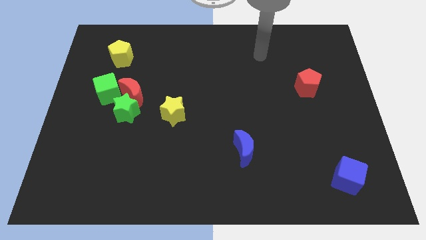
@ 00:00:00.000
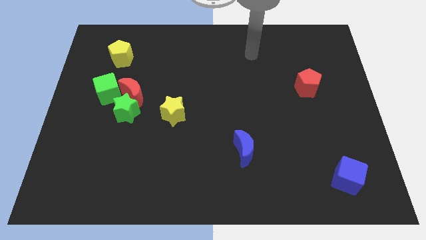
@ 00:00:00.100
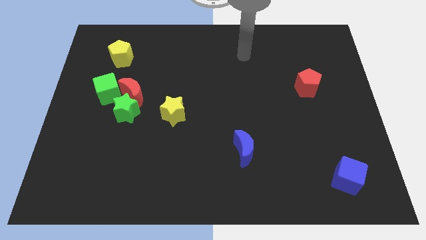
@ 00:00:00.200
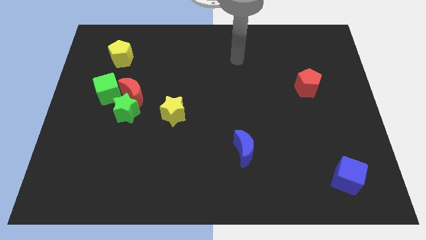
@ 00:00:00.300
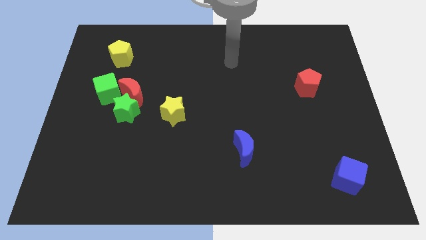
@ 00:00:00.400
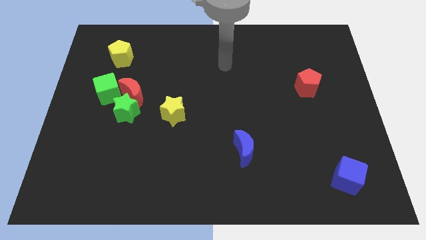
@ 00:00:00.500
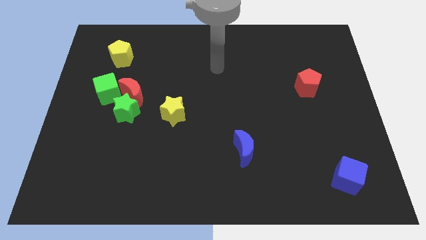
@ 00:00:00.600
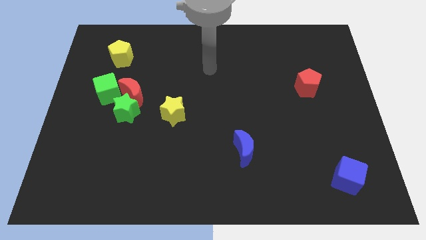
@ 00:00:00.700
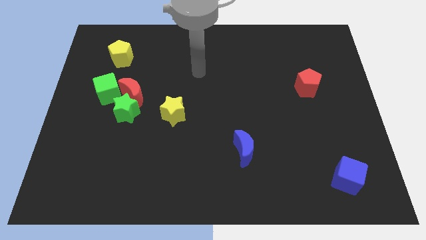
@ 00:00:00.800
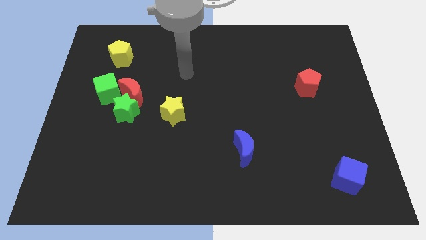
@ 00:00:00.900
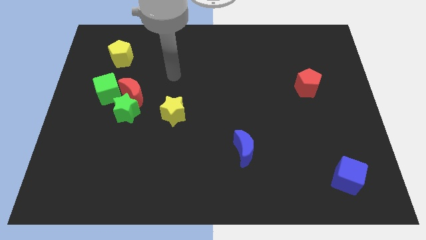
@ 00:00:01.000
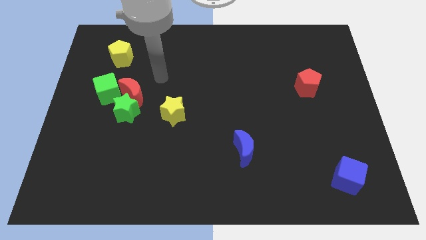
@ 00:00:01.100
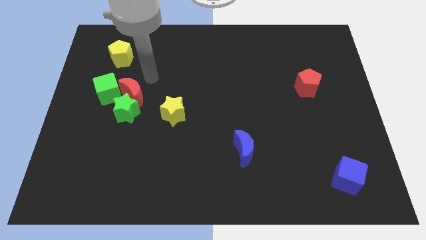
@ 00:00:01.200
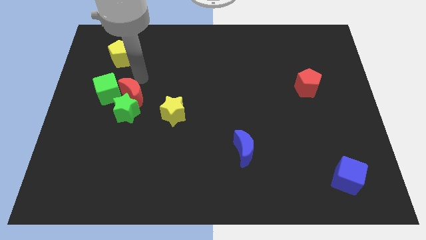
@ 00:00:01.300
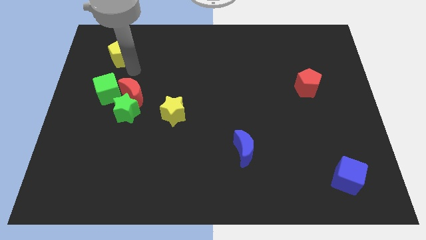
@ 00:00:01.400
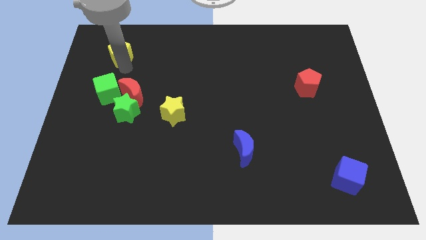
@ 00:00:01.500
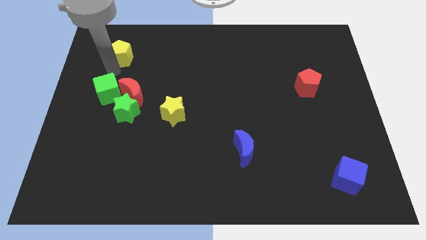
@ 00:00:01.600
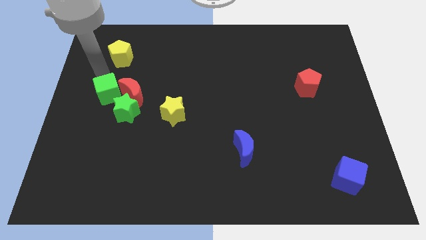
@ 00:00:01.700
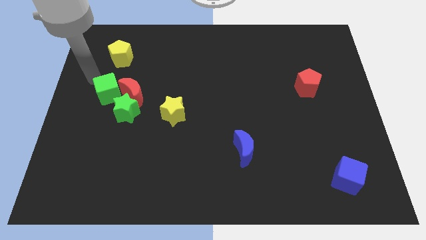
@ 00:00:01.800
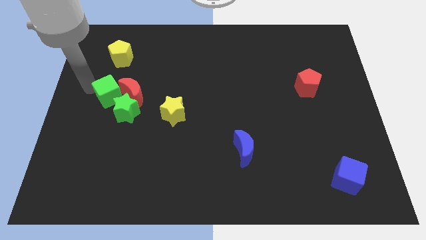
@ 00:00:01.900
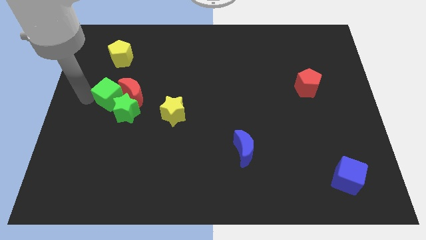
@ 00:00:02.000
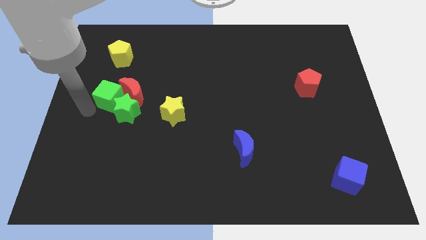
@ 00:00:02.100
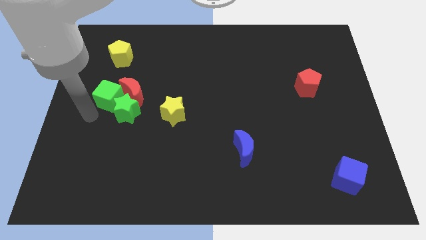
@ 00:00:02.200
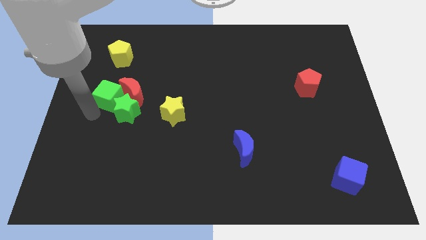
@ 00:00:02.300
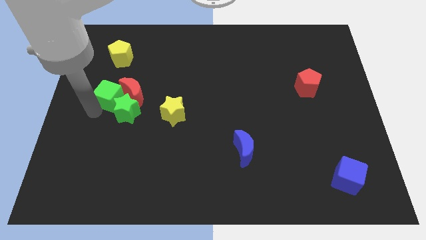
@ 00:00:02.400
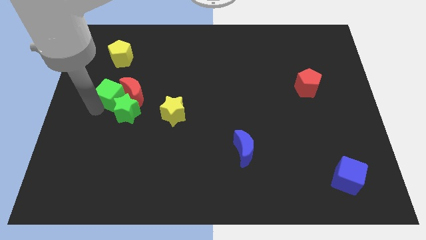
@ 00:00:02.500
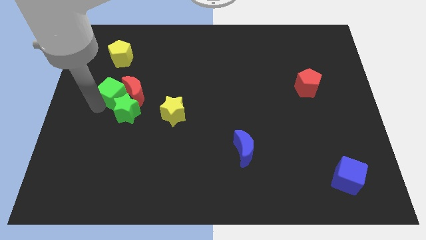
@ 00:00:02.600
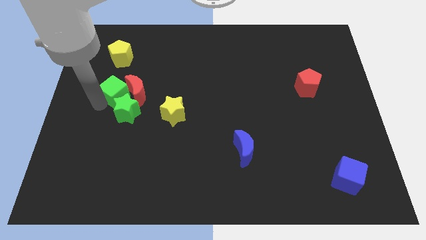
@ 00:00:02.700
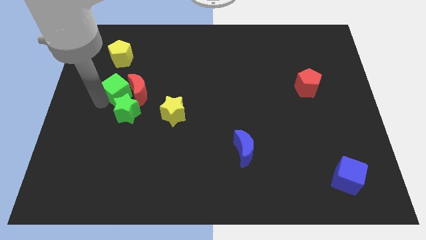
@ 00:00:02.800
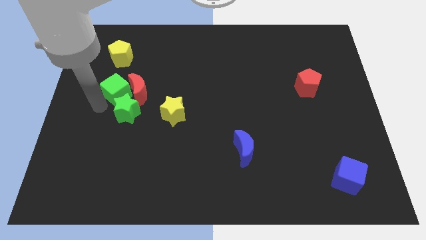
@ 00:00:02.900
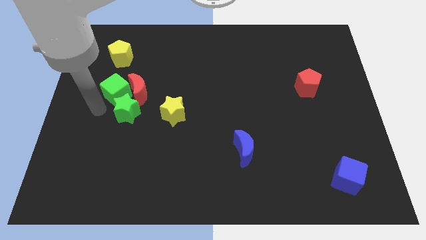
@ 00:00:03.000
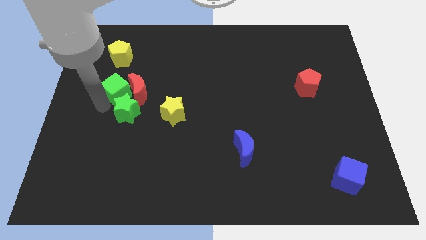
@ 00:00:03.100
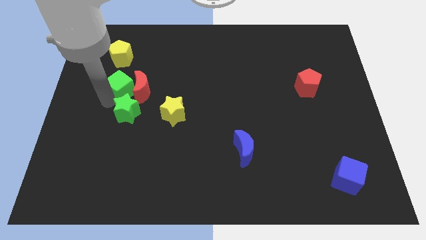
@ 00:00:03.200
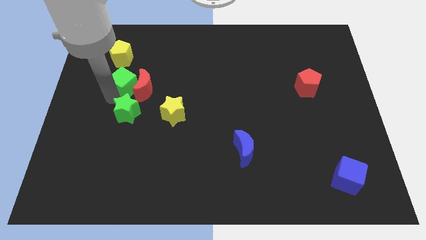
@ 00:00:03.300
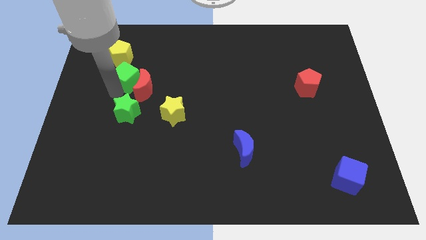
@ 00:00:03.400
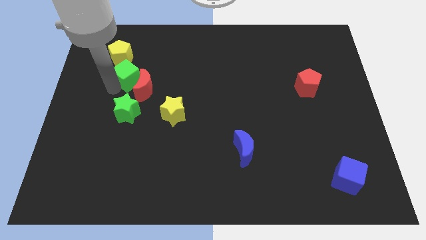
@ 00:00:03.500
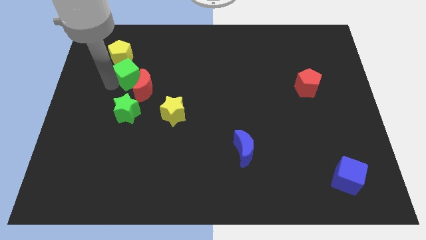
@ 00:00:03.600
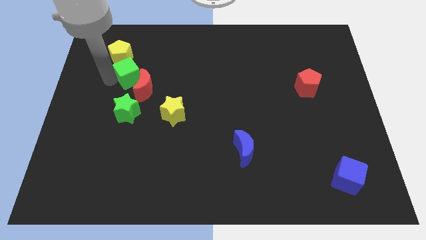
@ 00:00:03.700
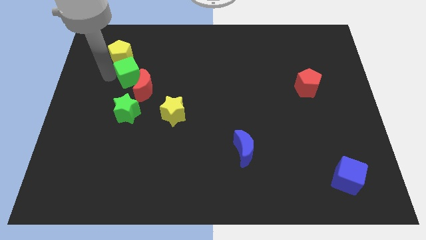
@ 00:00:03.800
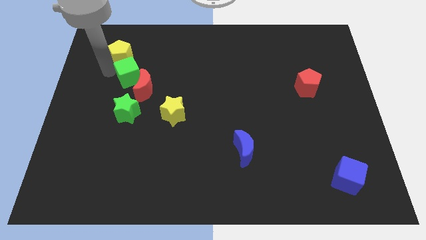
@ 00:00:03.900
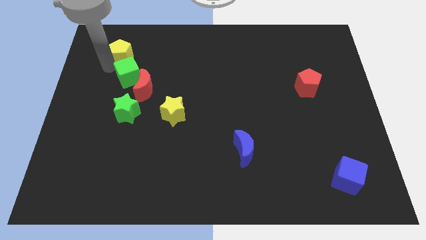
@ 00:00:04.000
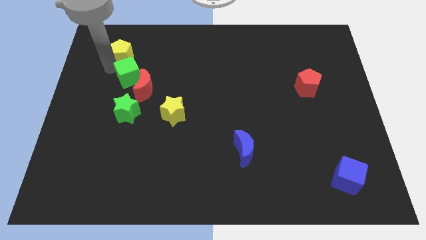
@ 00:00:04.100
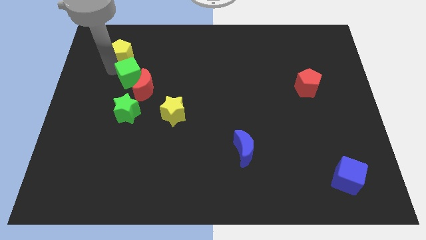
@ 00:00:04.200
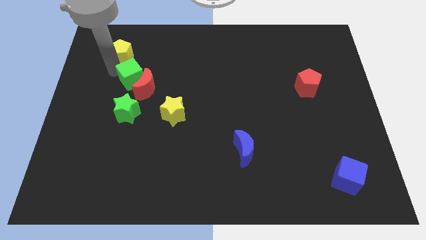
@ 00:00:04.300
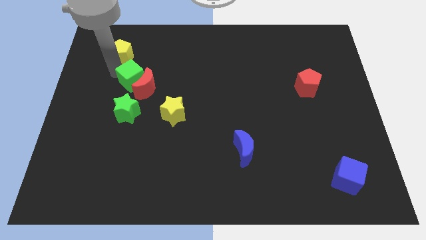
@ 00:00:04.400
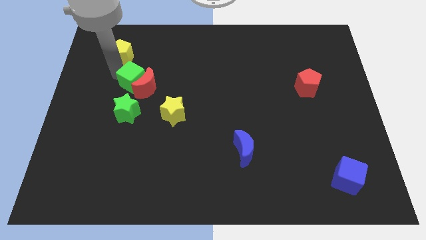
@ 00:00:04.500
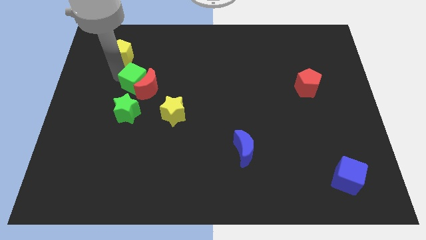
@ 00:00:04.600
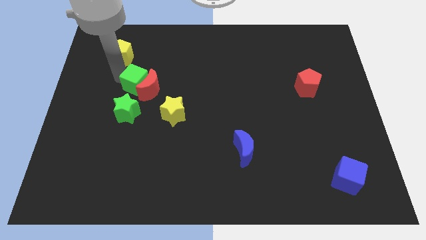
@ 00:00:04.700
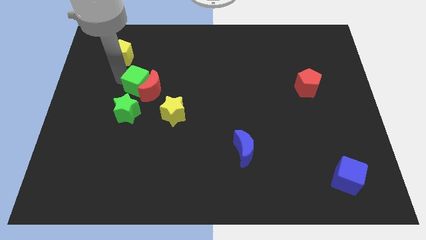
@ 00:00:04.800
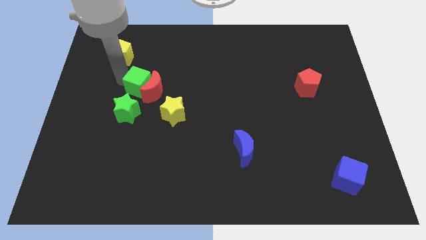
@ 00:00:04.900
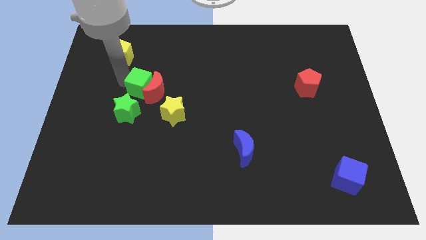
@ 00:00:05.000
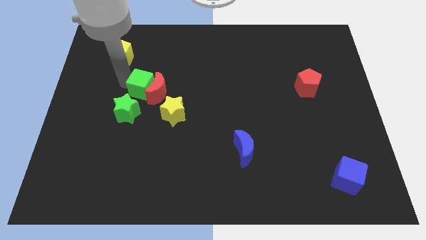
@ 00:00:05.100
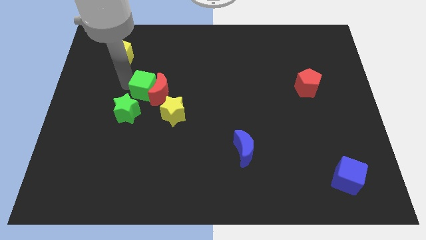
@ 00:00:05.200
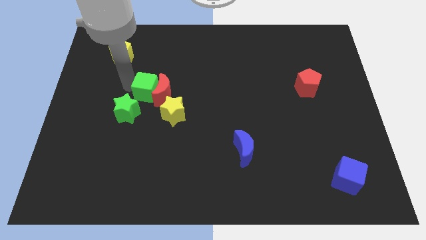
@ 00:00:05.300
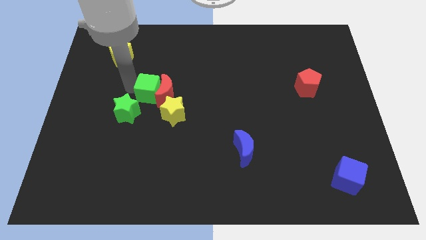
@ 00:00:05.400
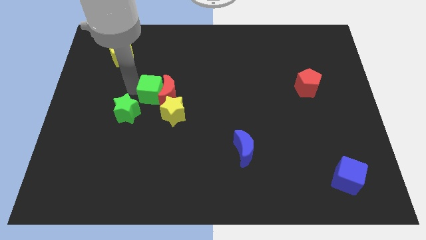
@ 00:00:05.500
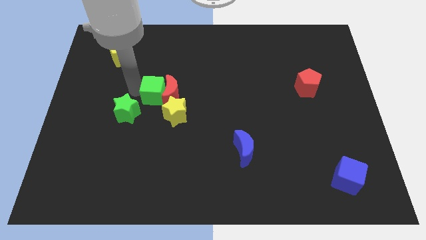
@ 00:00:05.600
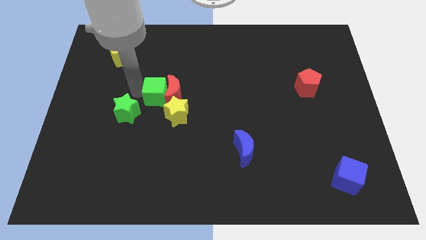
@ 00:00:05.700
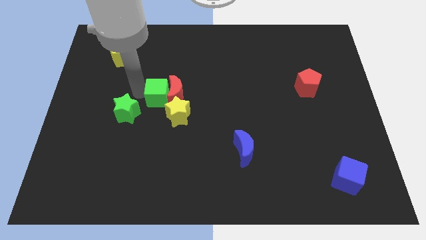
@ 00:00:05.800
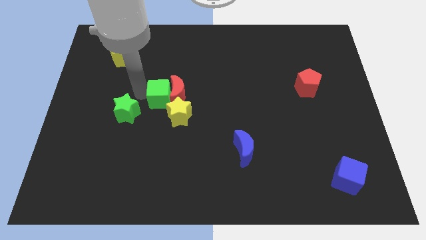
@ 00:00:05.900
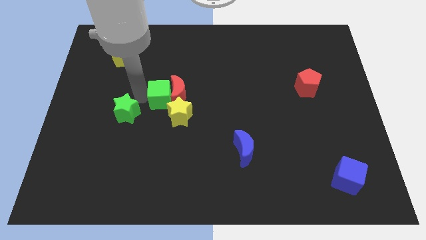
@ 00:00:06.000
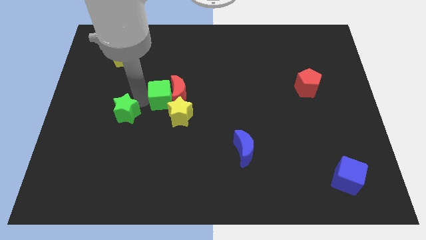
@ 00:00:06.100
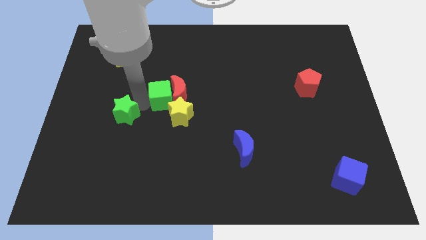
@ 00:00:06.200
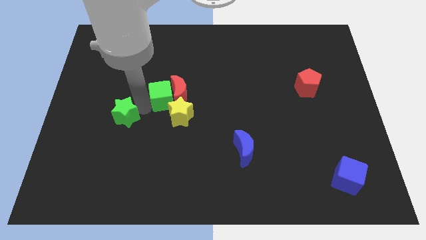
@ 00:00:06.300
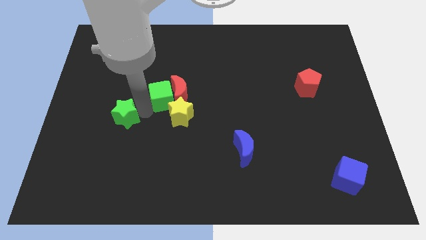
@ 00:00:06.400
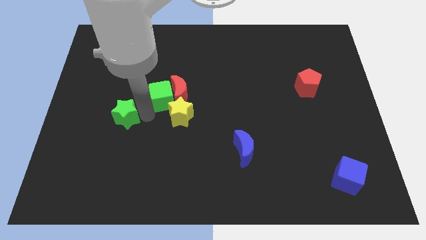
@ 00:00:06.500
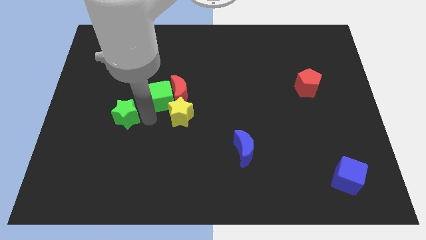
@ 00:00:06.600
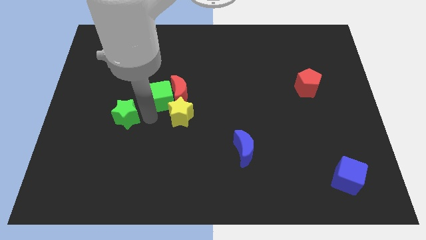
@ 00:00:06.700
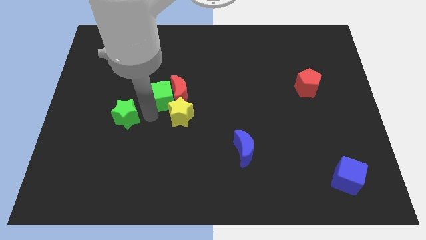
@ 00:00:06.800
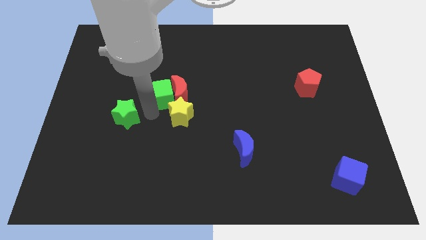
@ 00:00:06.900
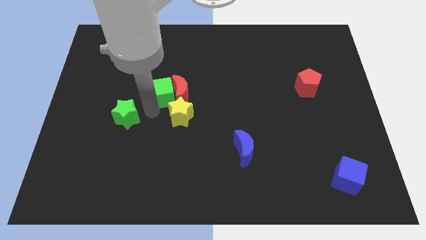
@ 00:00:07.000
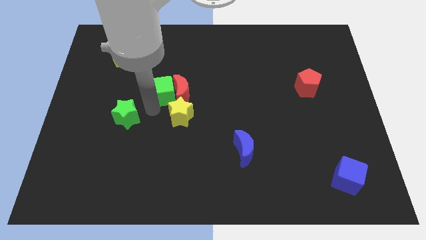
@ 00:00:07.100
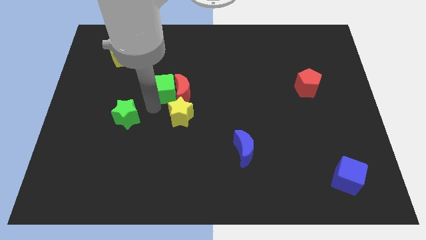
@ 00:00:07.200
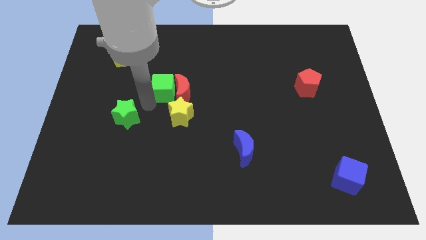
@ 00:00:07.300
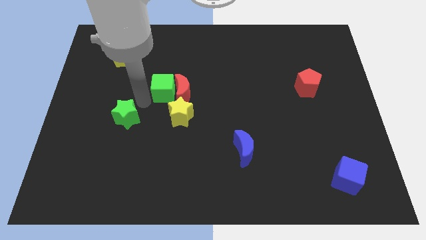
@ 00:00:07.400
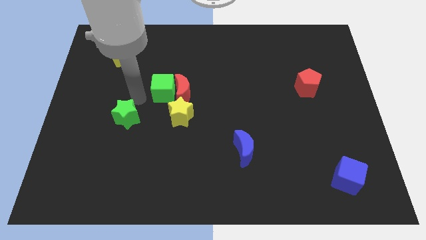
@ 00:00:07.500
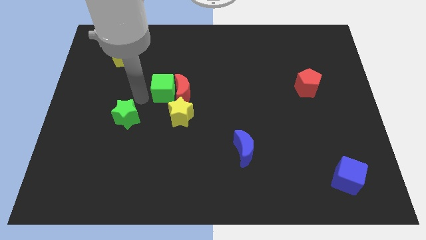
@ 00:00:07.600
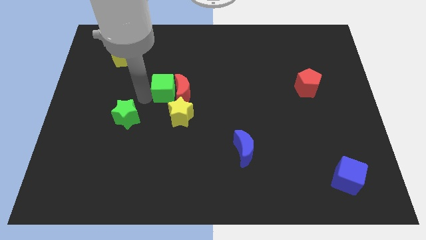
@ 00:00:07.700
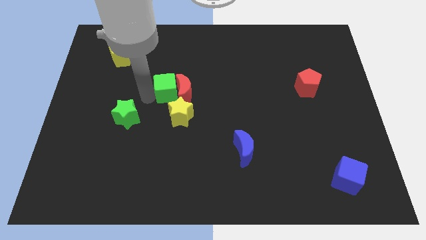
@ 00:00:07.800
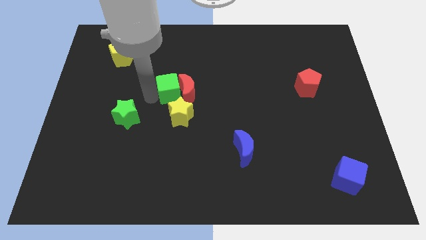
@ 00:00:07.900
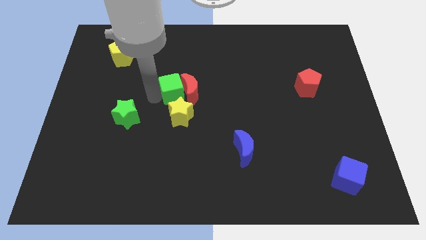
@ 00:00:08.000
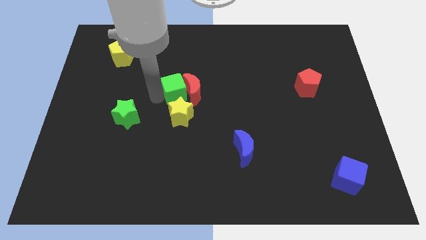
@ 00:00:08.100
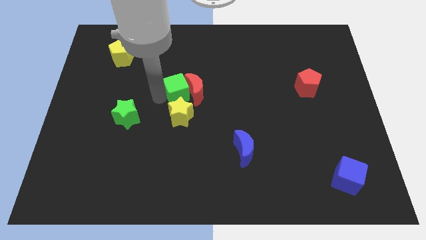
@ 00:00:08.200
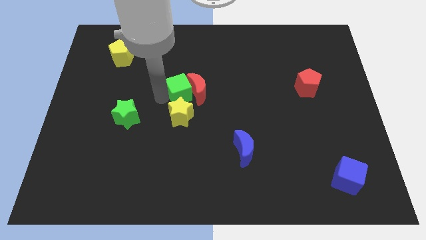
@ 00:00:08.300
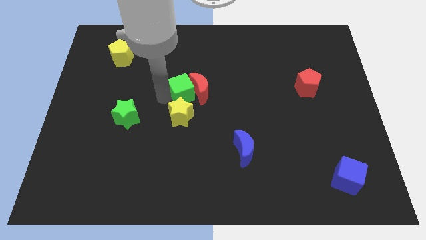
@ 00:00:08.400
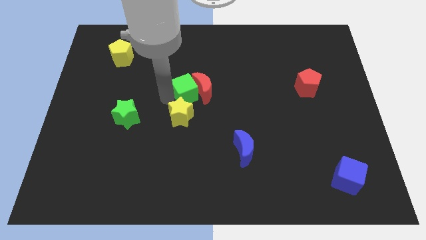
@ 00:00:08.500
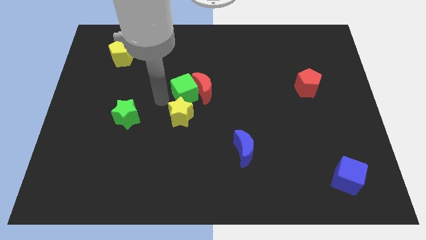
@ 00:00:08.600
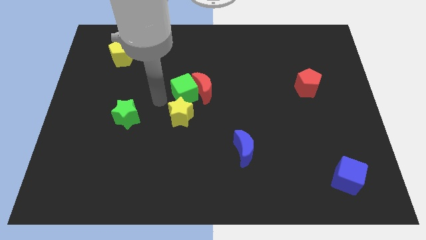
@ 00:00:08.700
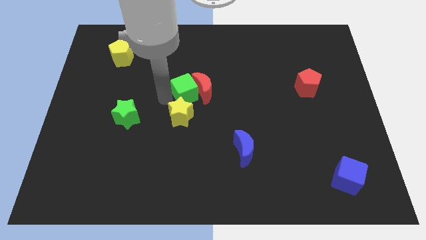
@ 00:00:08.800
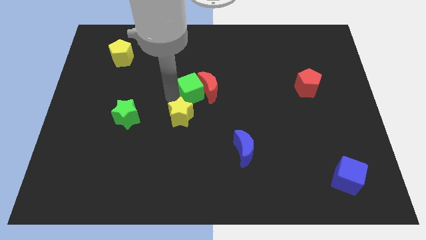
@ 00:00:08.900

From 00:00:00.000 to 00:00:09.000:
move the green cube to the right
